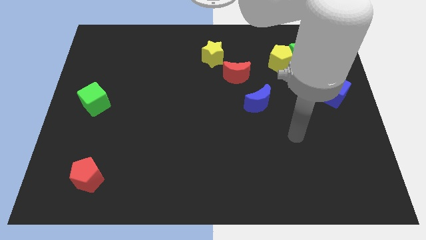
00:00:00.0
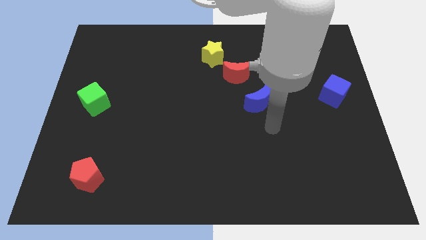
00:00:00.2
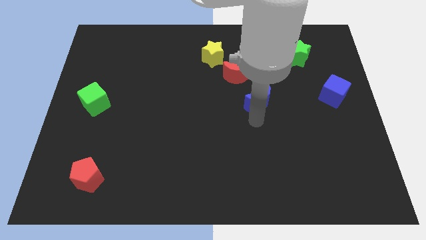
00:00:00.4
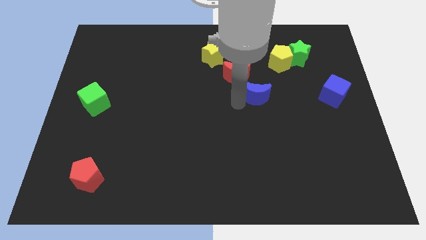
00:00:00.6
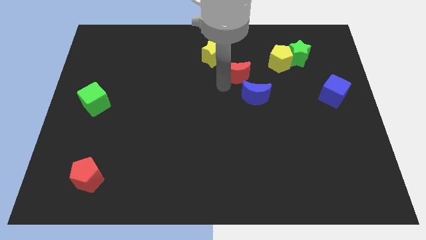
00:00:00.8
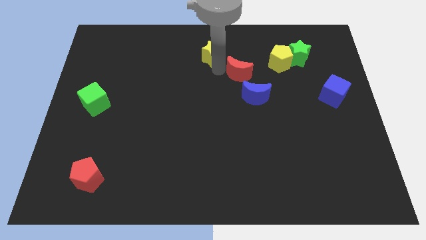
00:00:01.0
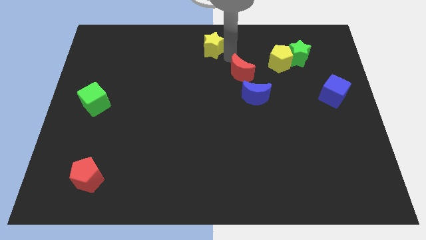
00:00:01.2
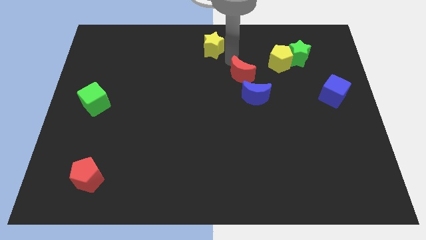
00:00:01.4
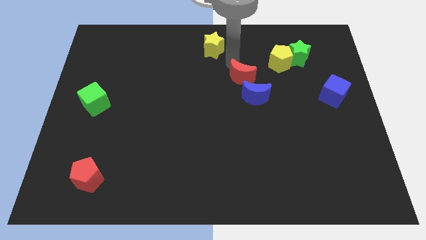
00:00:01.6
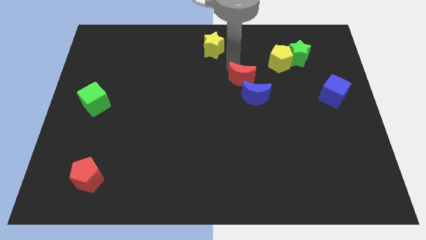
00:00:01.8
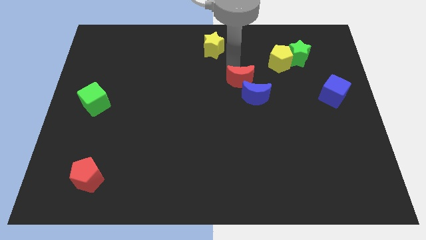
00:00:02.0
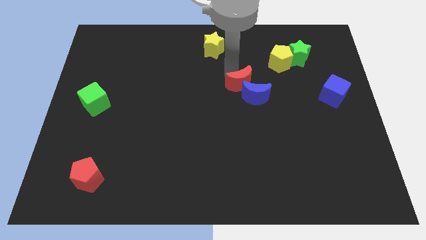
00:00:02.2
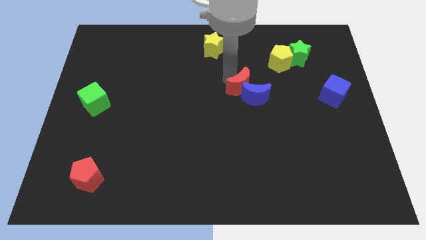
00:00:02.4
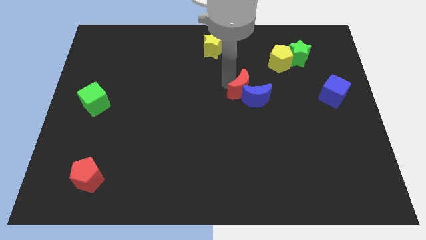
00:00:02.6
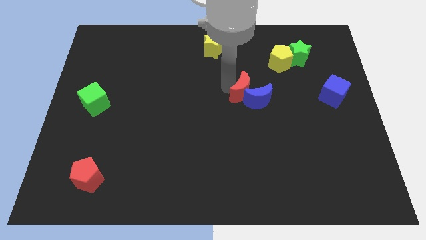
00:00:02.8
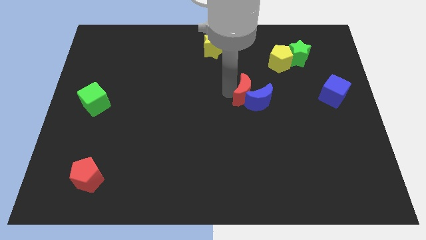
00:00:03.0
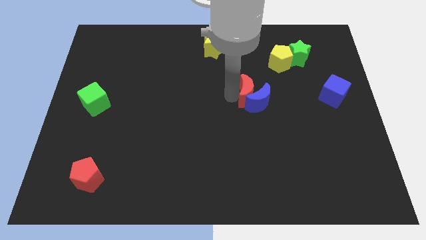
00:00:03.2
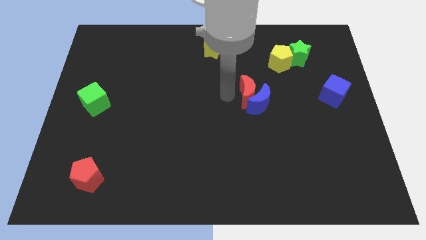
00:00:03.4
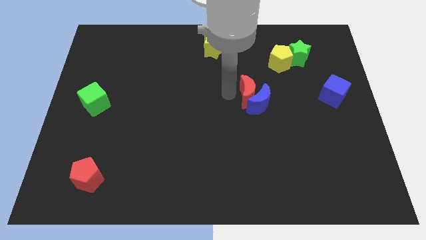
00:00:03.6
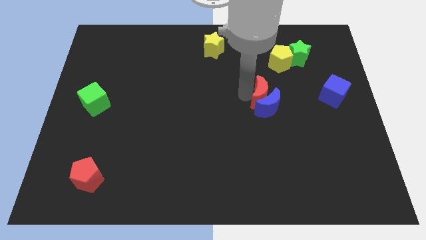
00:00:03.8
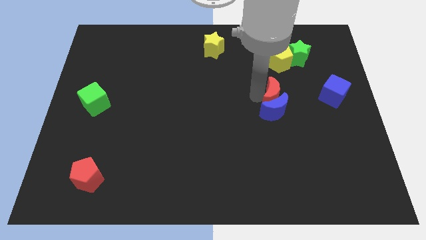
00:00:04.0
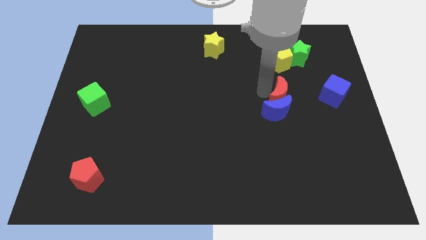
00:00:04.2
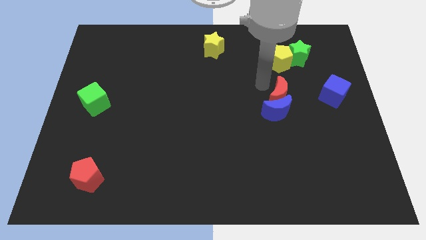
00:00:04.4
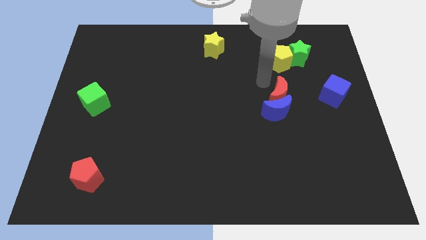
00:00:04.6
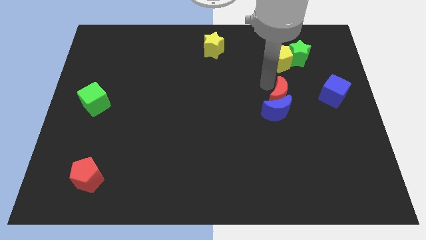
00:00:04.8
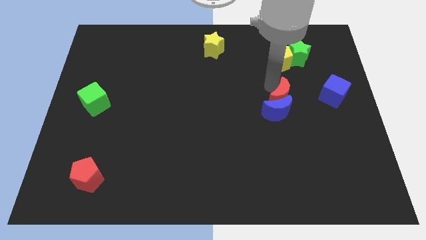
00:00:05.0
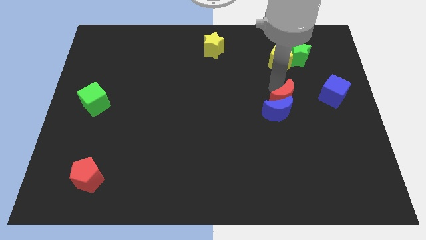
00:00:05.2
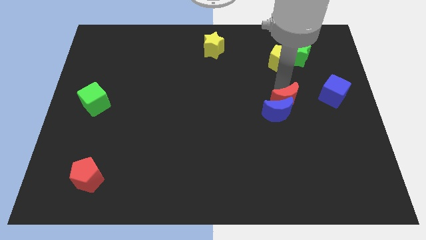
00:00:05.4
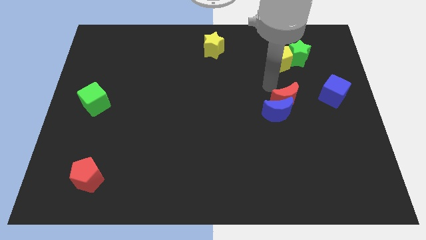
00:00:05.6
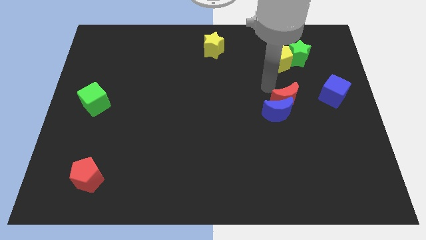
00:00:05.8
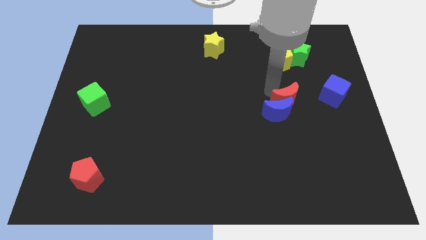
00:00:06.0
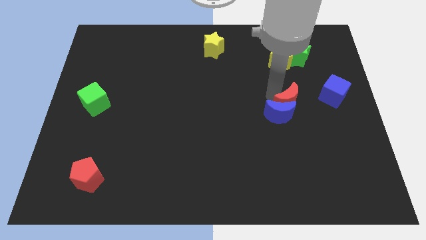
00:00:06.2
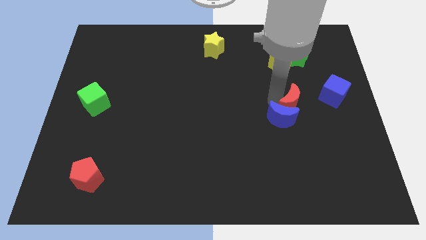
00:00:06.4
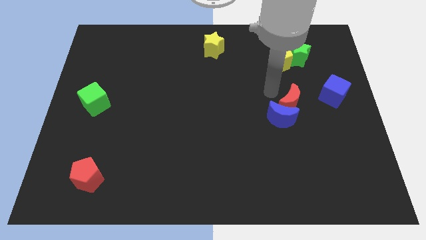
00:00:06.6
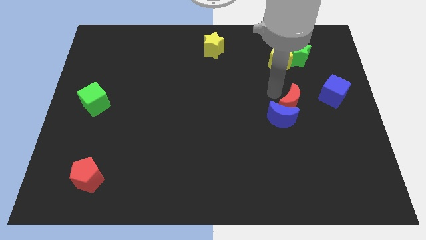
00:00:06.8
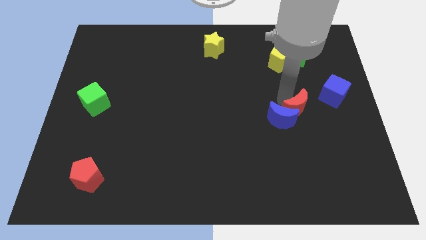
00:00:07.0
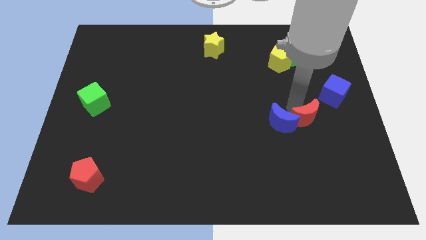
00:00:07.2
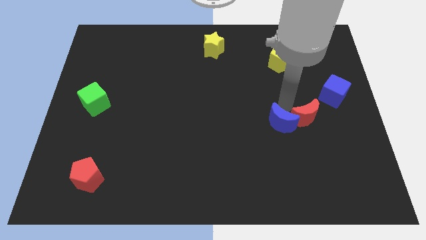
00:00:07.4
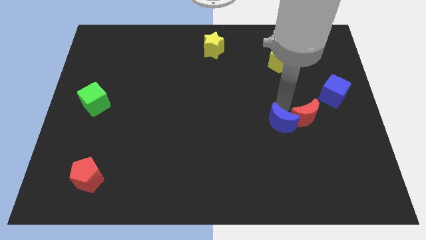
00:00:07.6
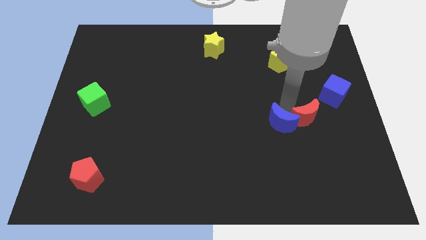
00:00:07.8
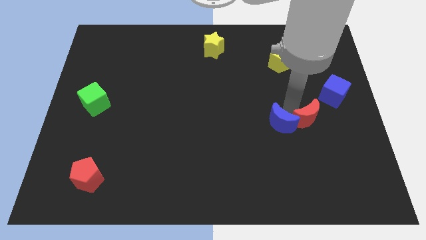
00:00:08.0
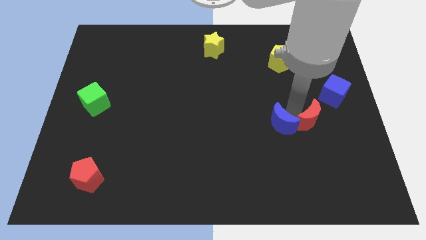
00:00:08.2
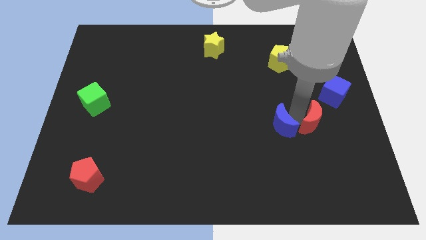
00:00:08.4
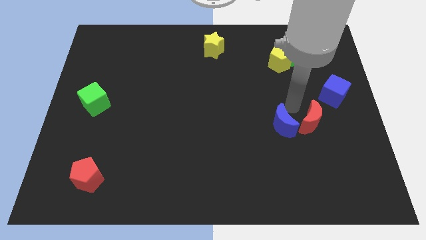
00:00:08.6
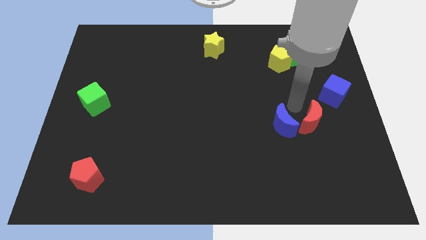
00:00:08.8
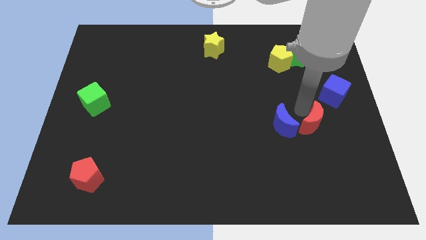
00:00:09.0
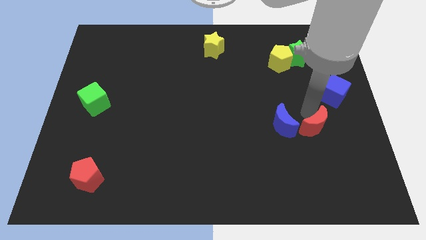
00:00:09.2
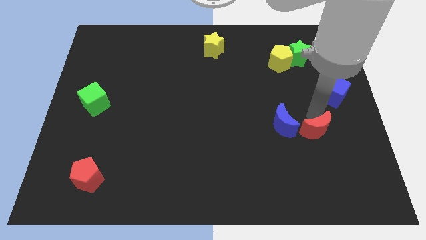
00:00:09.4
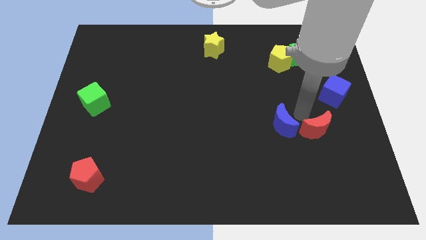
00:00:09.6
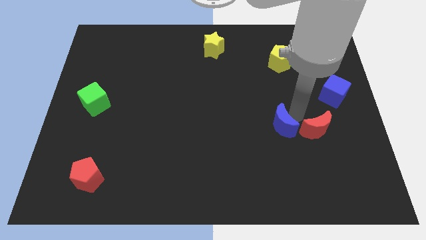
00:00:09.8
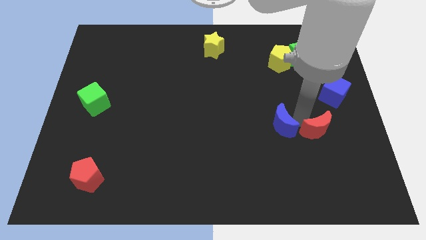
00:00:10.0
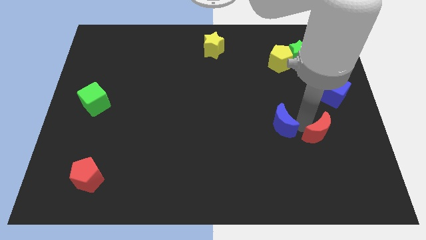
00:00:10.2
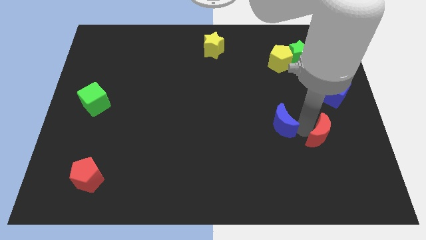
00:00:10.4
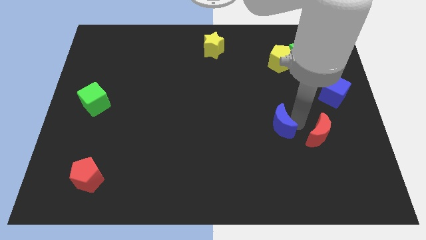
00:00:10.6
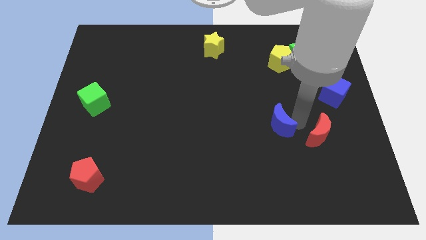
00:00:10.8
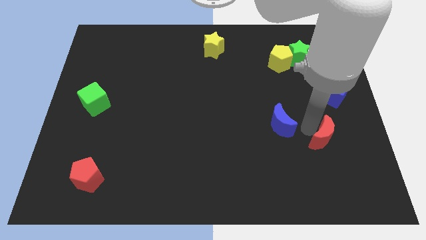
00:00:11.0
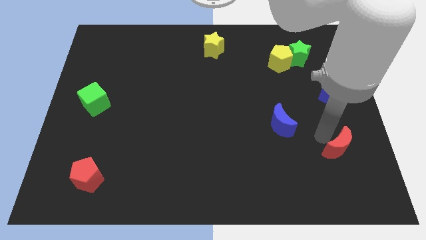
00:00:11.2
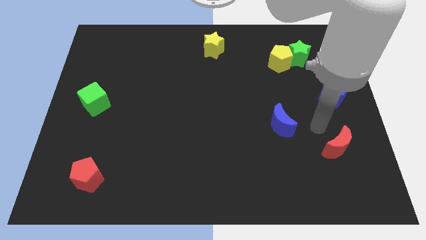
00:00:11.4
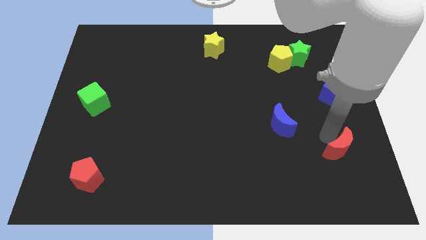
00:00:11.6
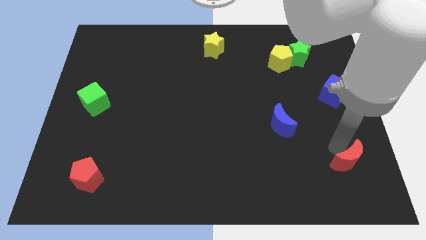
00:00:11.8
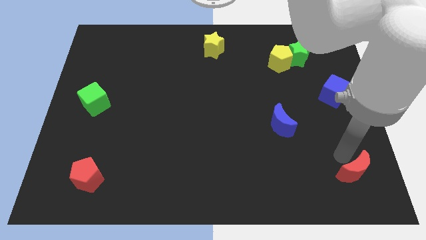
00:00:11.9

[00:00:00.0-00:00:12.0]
push the red moon to the bottom right
